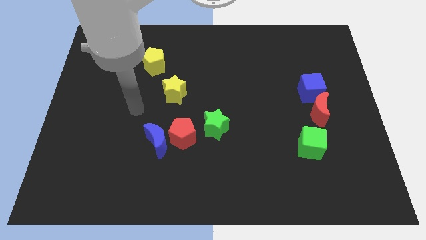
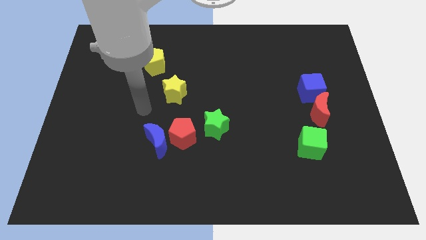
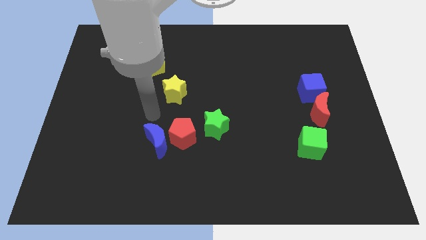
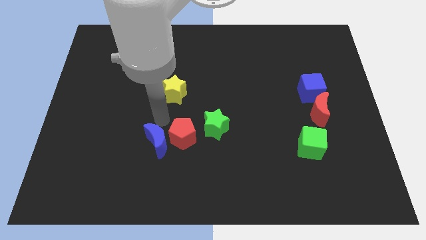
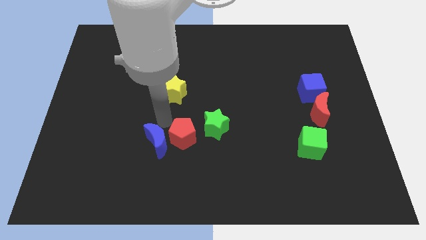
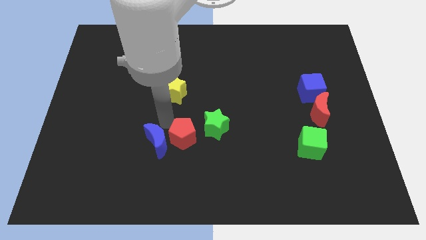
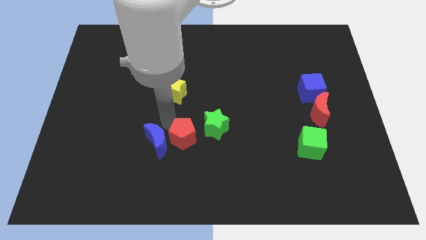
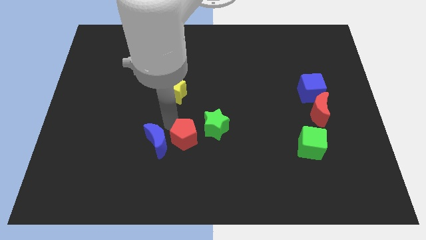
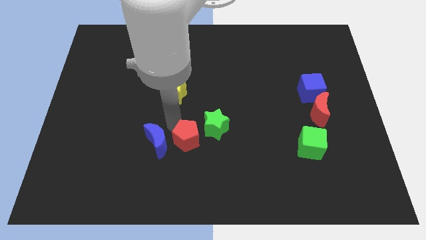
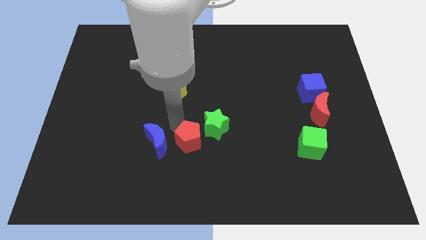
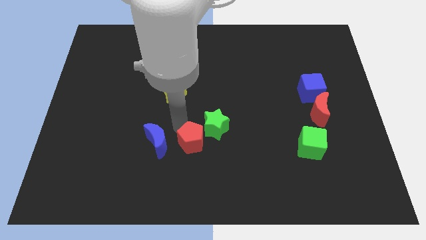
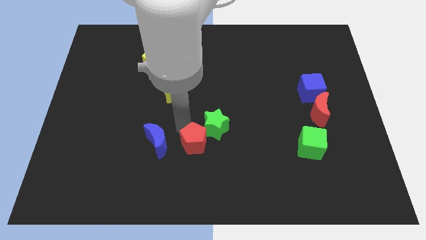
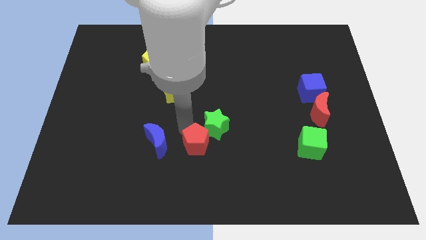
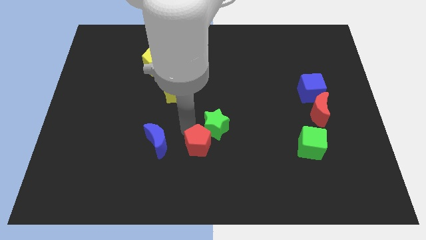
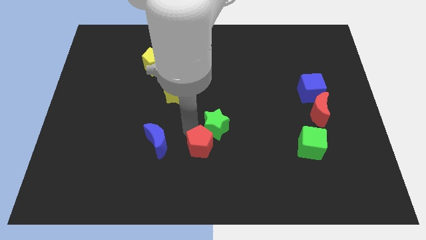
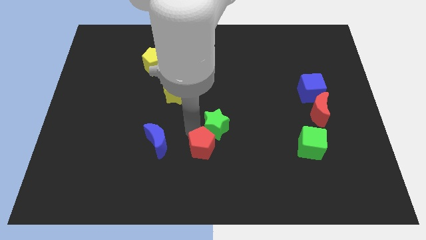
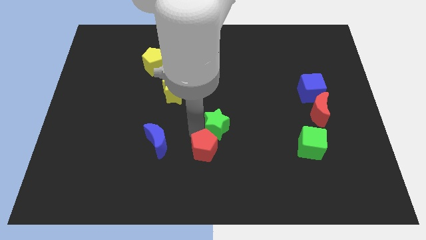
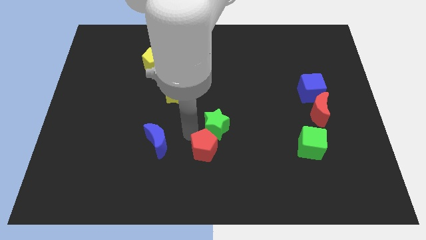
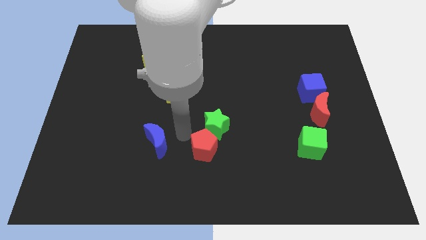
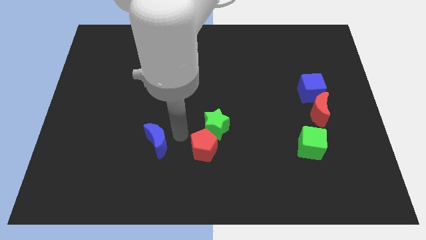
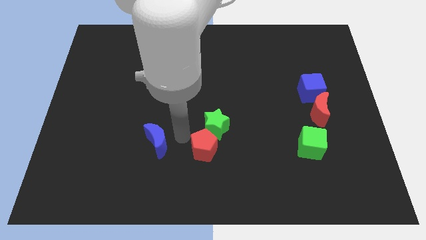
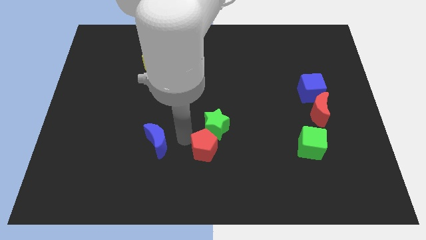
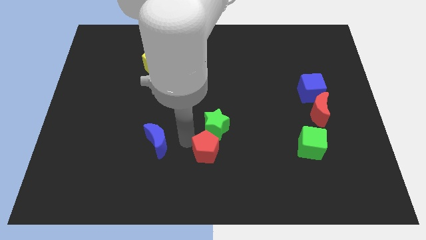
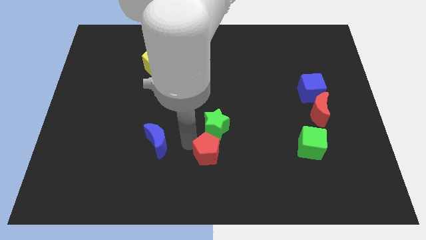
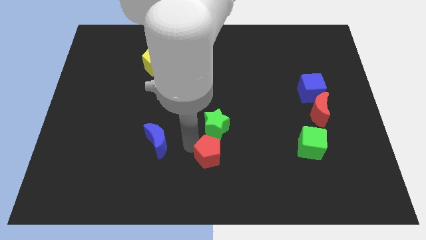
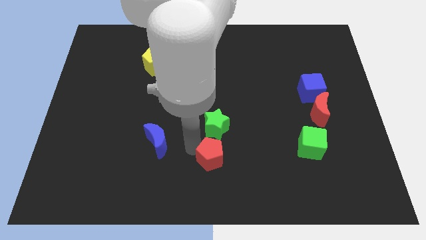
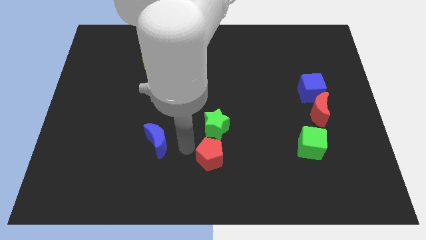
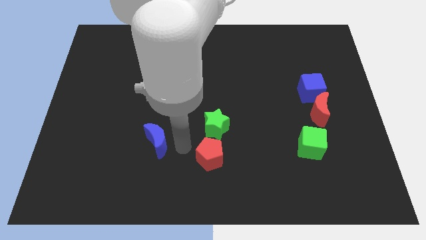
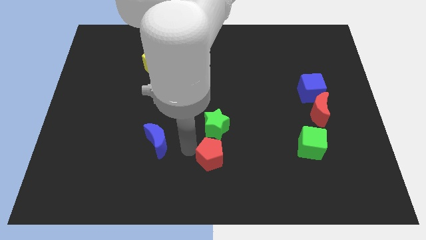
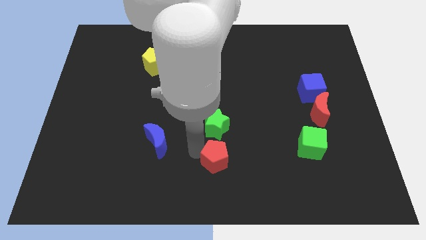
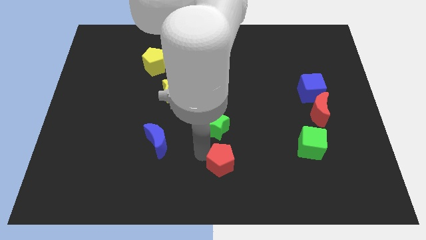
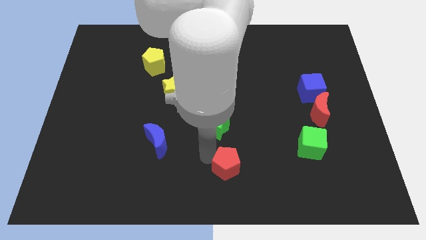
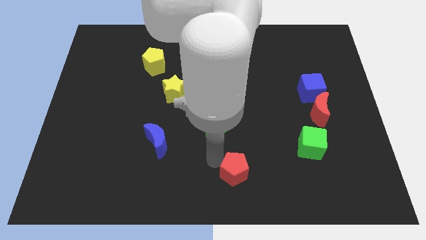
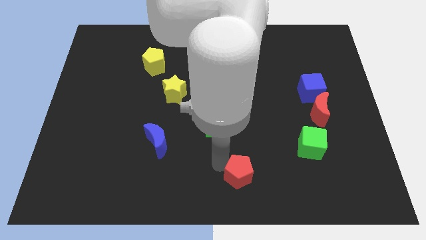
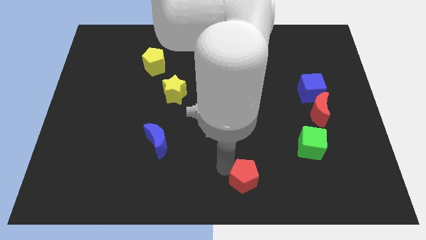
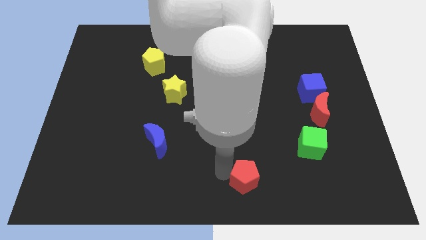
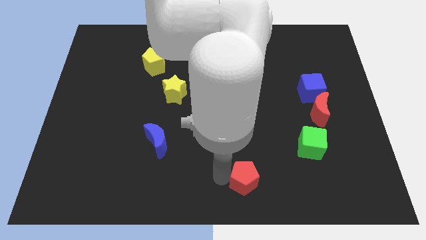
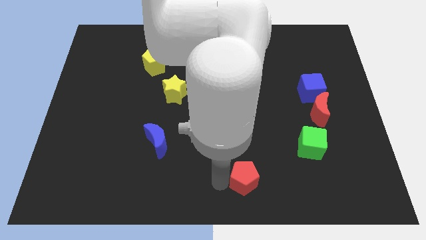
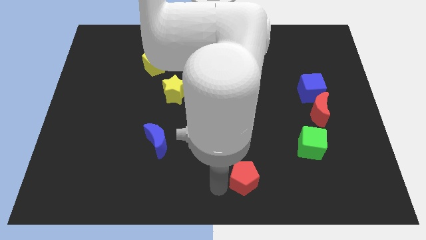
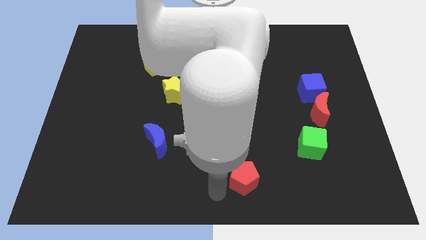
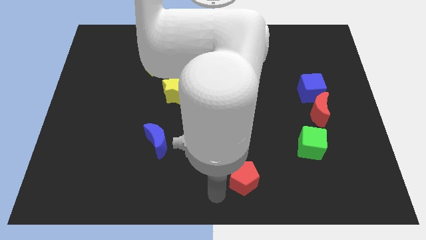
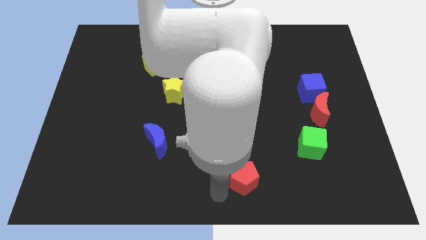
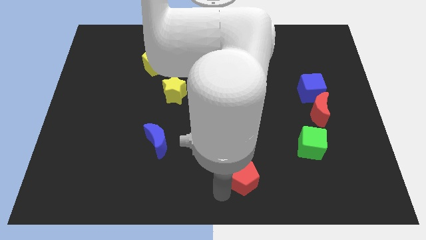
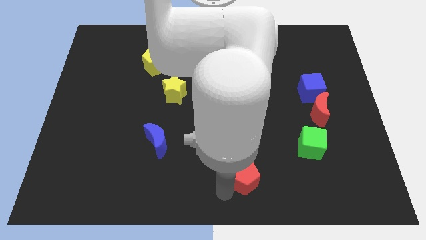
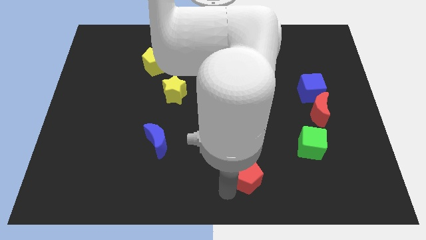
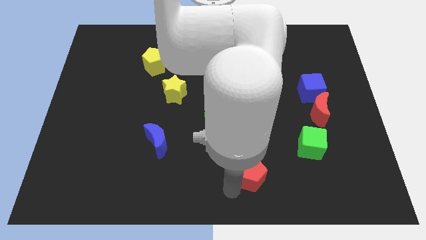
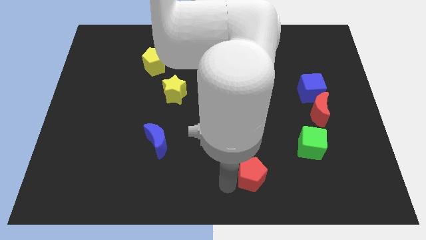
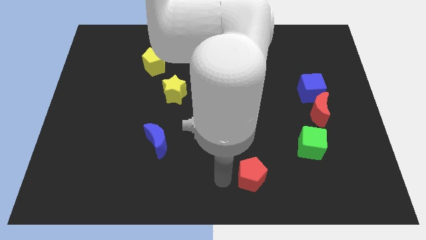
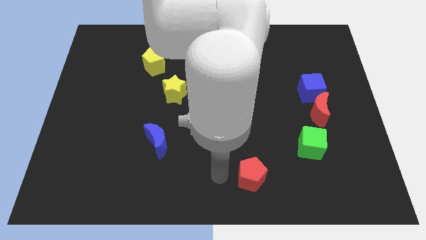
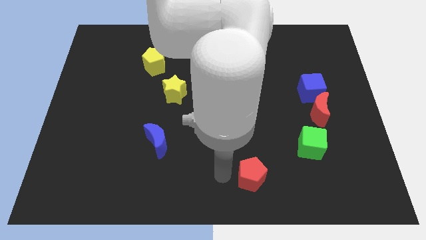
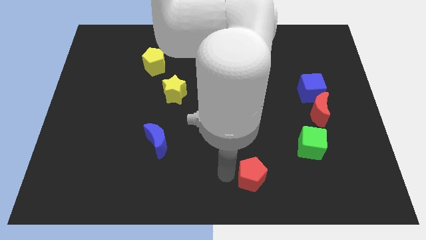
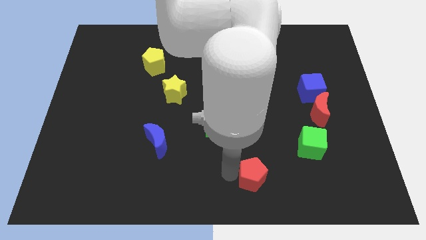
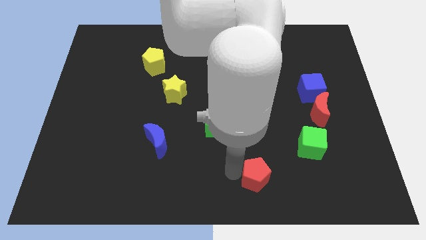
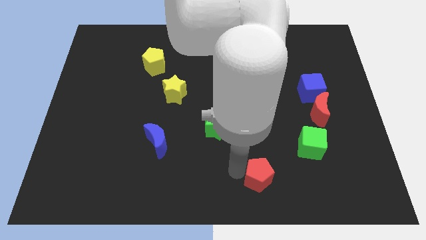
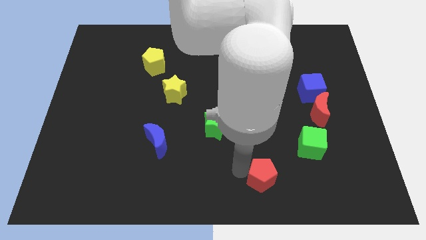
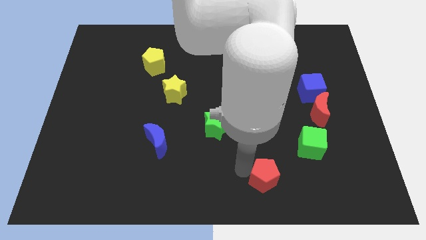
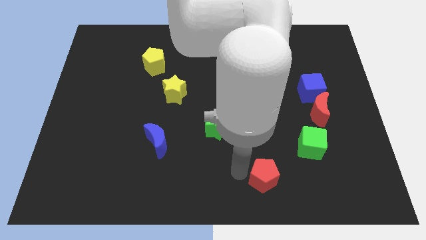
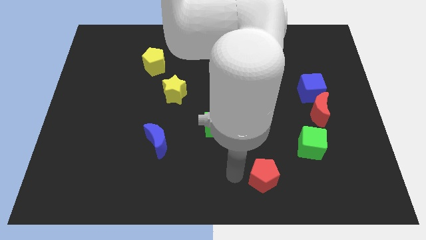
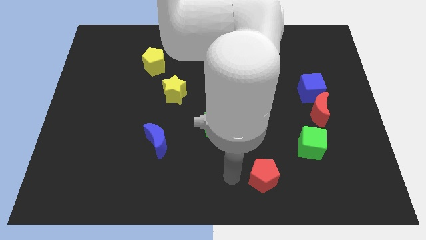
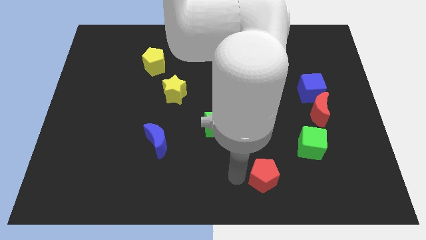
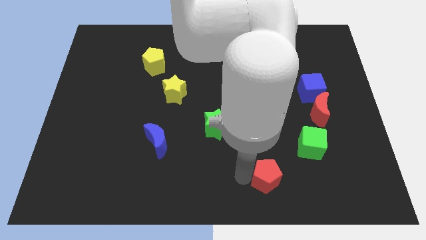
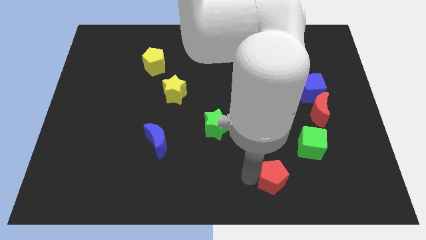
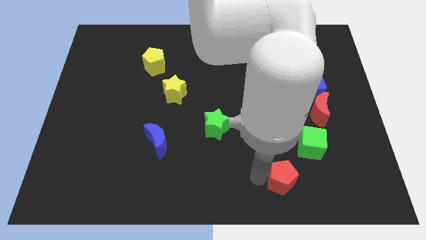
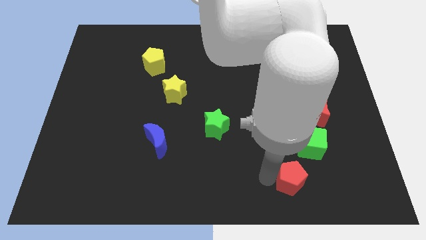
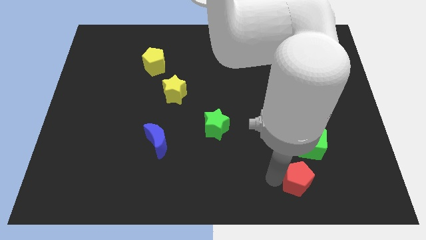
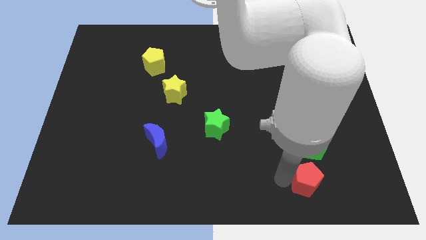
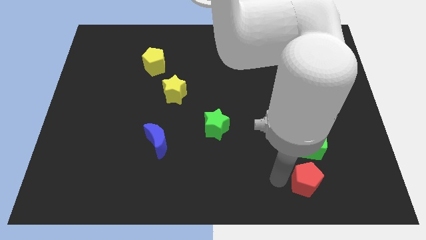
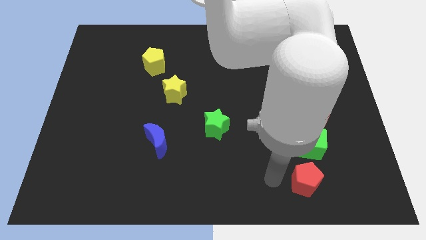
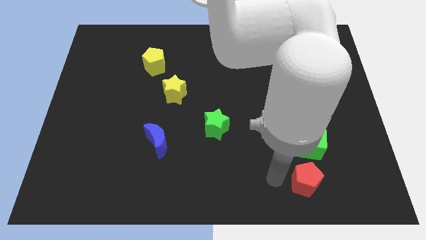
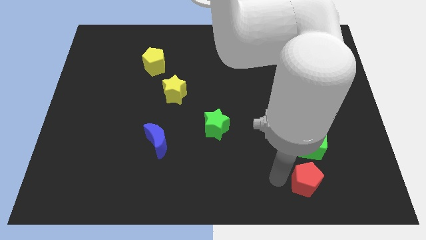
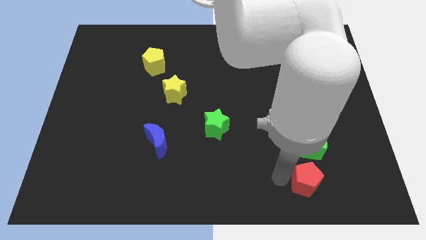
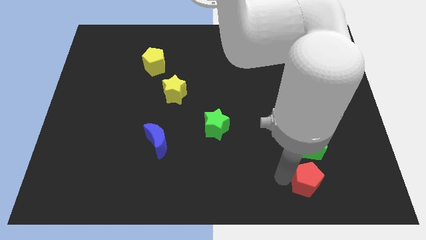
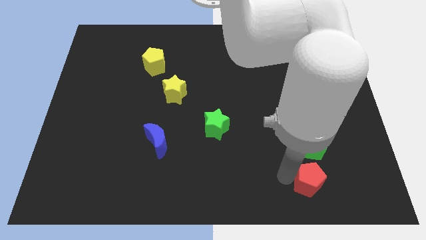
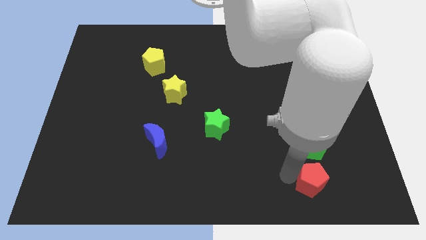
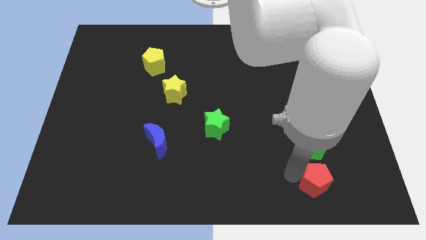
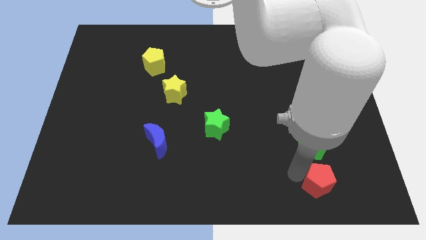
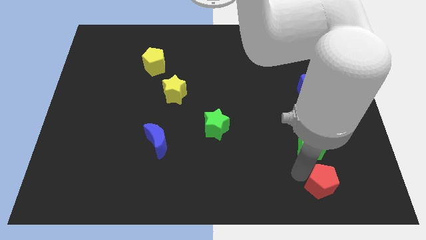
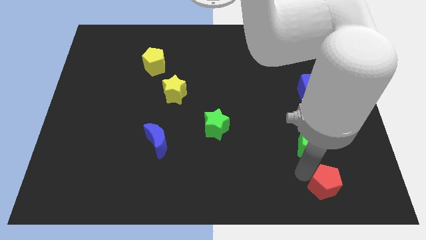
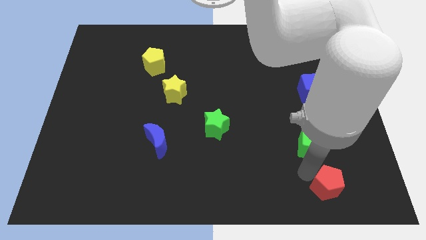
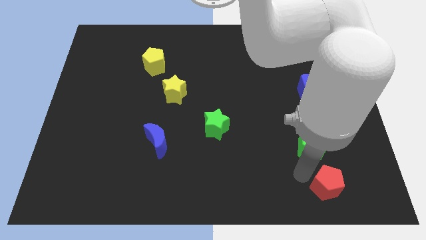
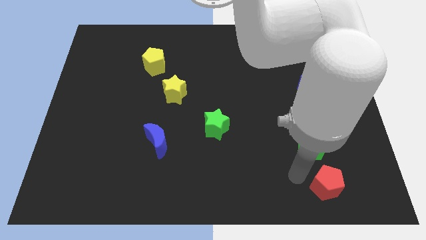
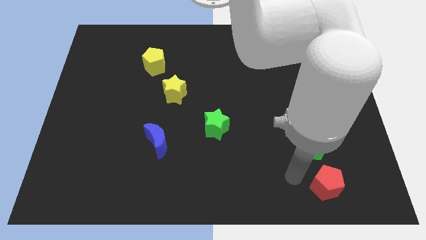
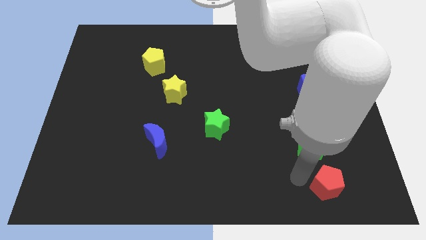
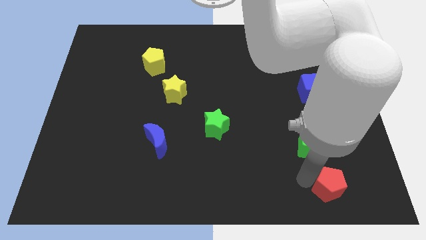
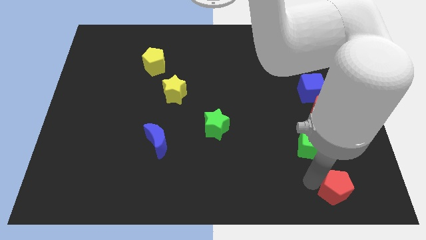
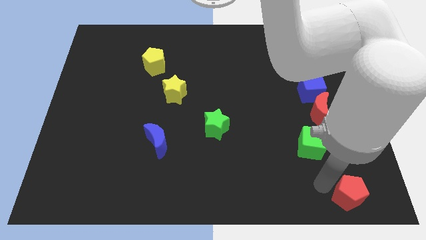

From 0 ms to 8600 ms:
slide the red pentagon to the bottom right corner
